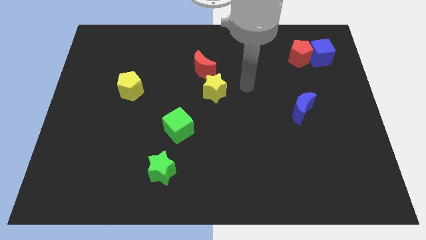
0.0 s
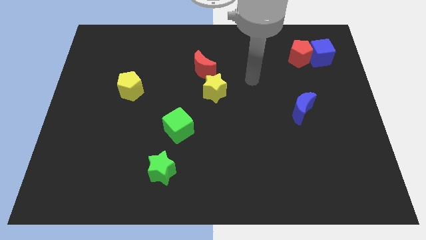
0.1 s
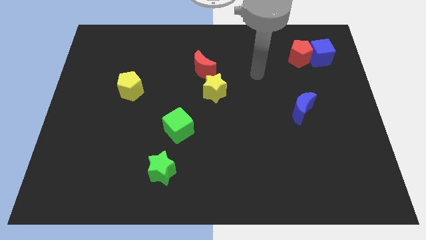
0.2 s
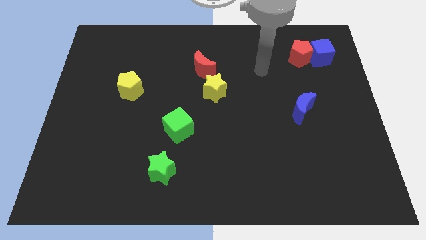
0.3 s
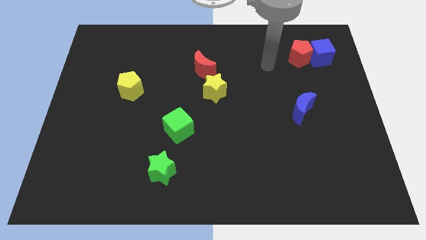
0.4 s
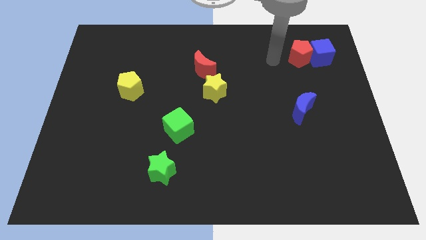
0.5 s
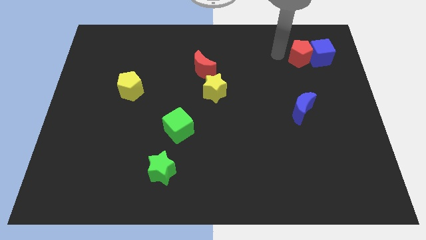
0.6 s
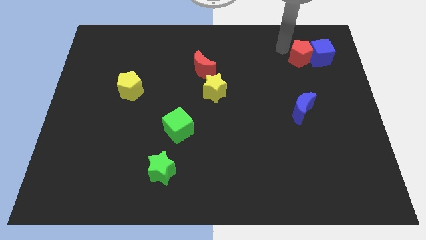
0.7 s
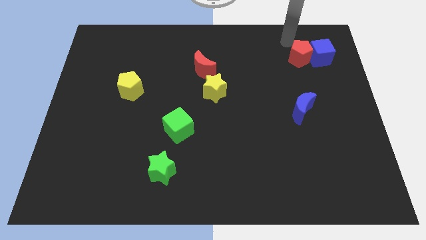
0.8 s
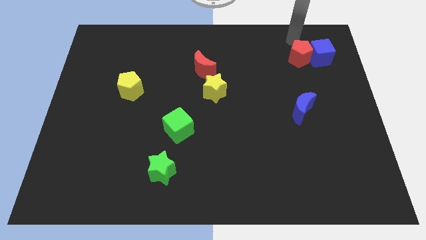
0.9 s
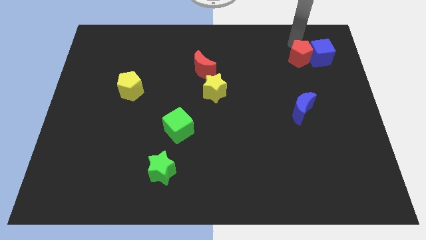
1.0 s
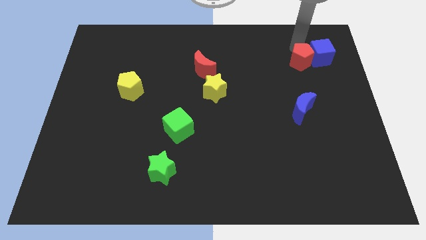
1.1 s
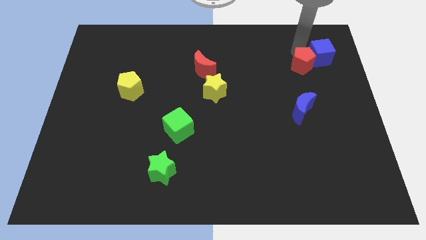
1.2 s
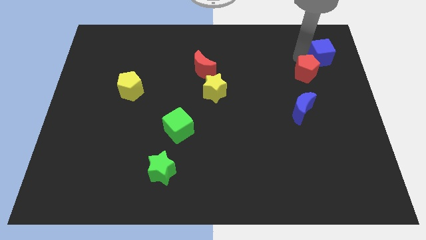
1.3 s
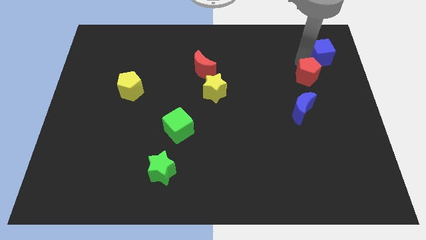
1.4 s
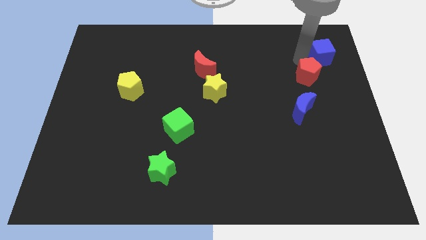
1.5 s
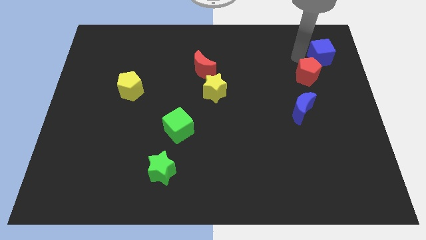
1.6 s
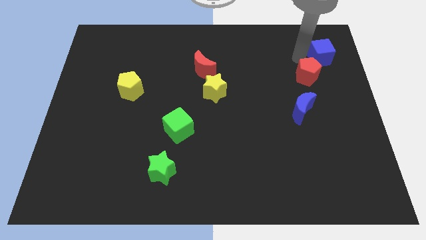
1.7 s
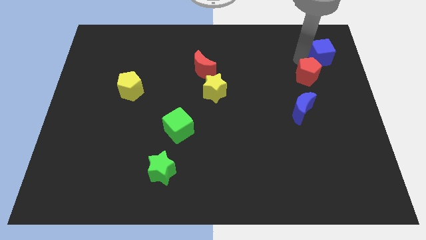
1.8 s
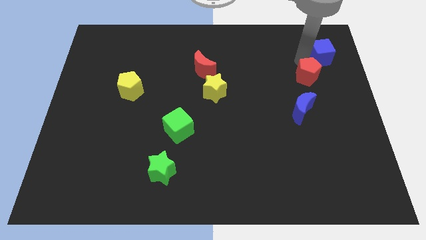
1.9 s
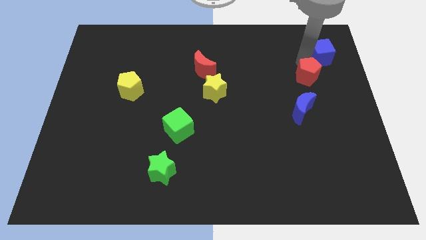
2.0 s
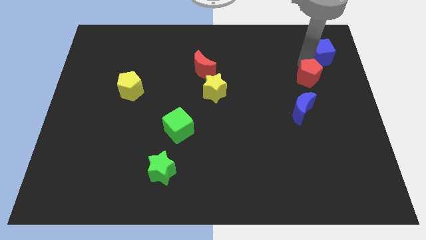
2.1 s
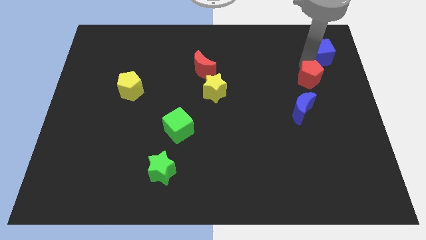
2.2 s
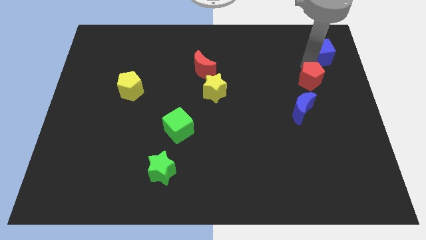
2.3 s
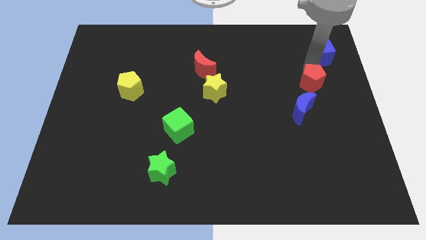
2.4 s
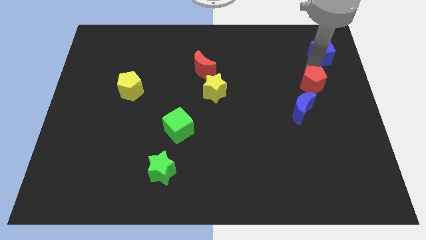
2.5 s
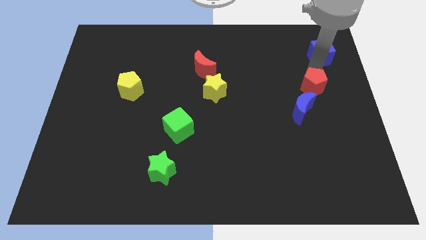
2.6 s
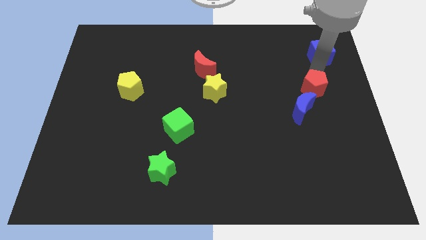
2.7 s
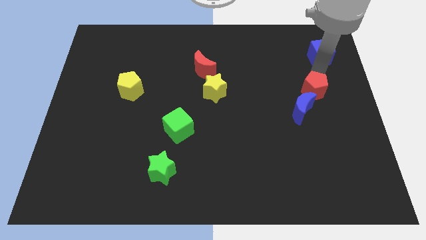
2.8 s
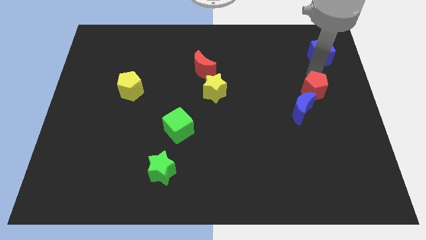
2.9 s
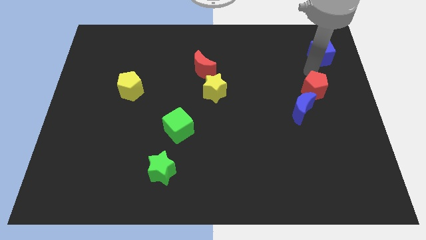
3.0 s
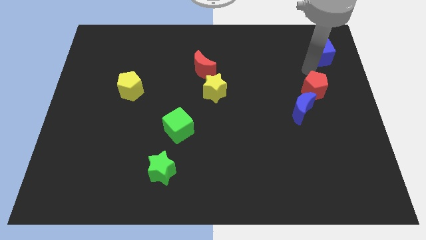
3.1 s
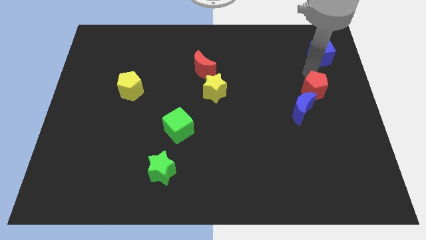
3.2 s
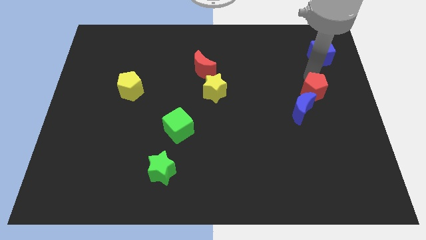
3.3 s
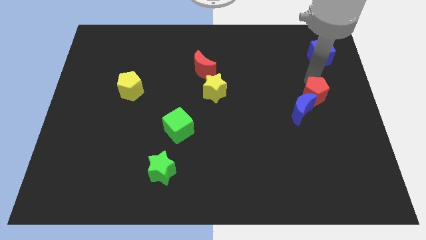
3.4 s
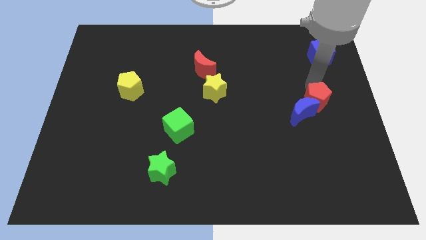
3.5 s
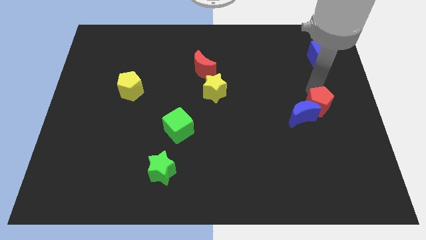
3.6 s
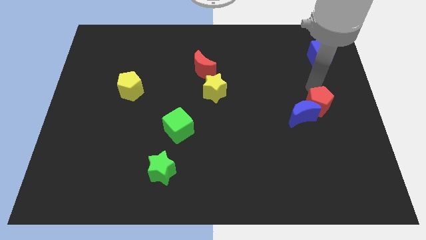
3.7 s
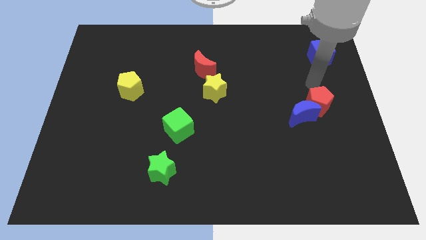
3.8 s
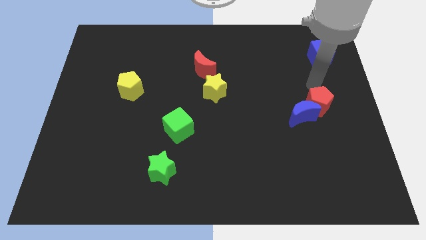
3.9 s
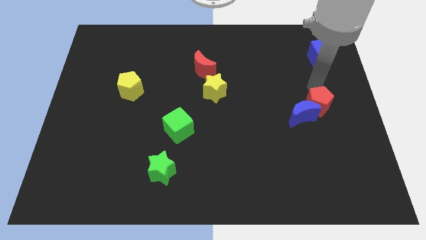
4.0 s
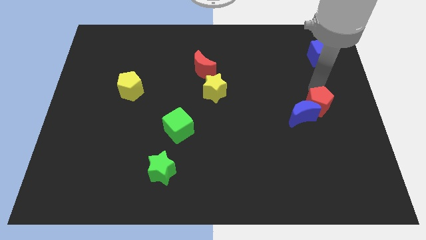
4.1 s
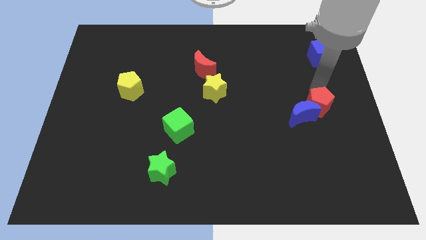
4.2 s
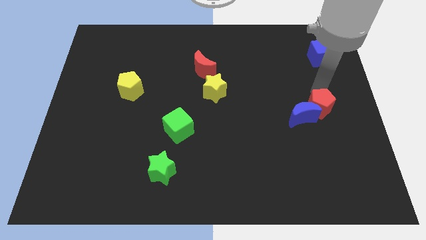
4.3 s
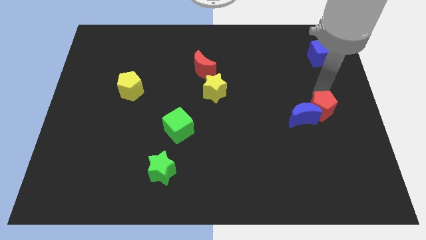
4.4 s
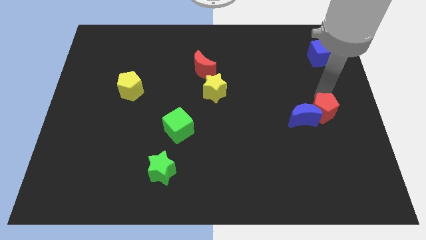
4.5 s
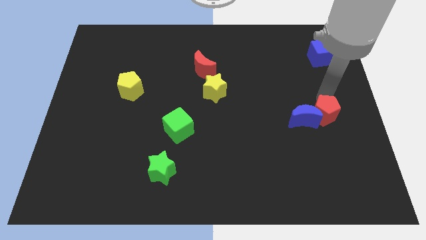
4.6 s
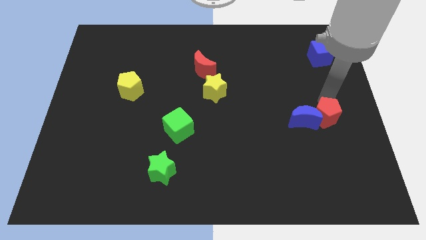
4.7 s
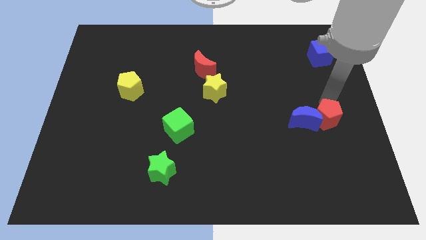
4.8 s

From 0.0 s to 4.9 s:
move the red pentagon down

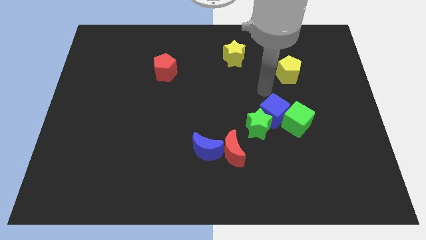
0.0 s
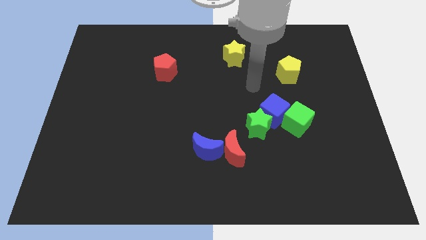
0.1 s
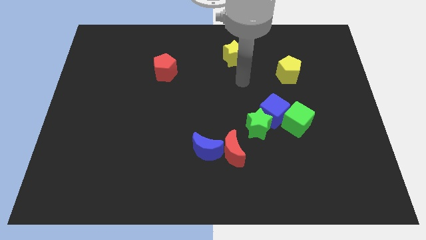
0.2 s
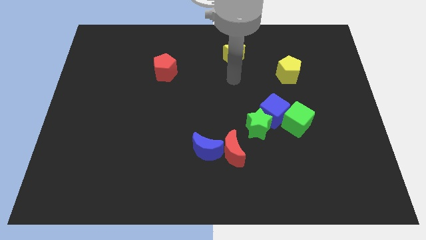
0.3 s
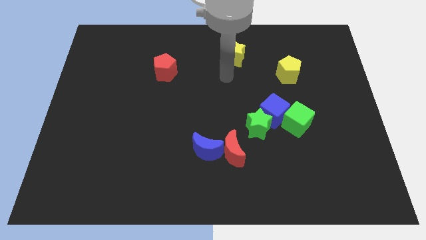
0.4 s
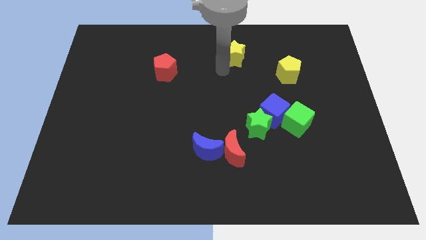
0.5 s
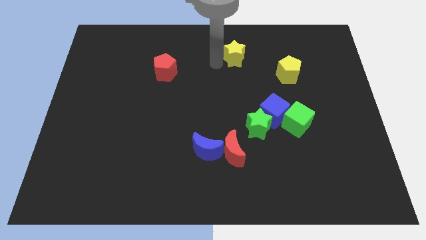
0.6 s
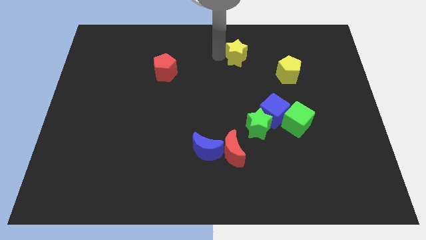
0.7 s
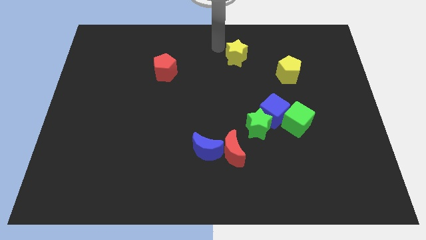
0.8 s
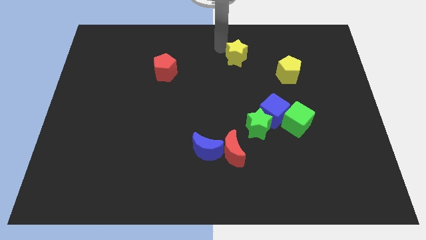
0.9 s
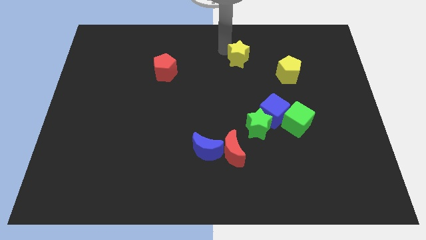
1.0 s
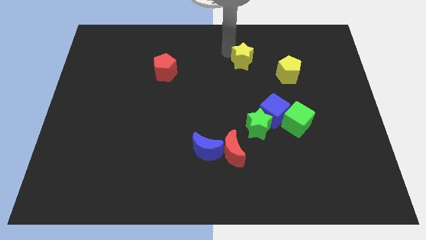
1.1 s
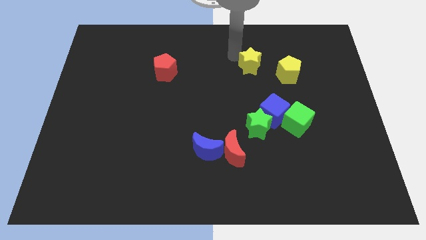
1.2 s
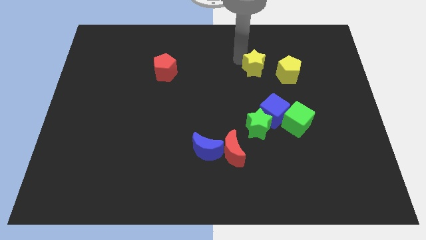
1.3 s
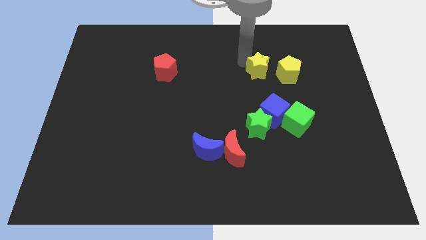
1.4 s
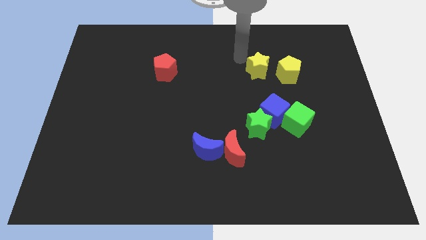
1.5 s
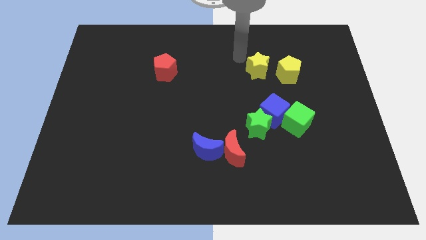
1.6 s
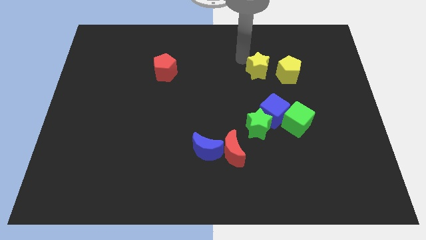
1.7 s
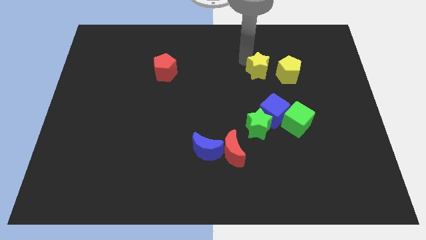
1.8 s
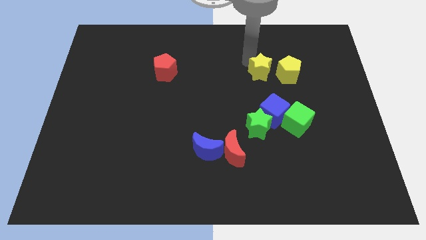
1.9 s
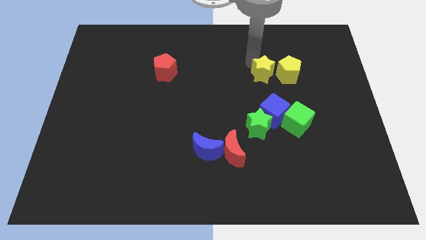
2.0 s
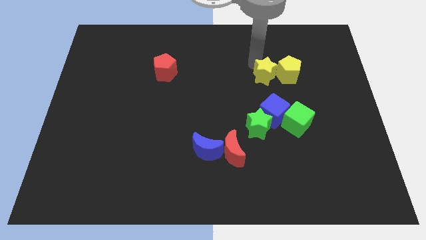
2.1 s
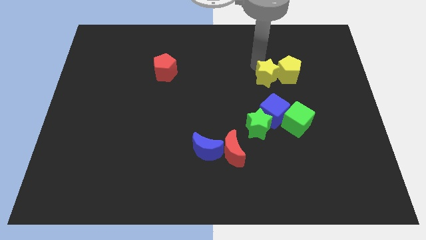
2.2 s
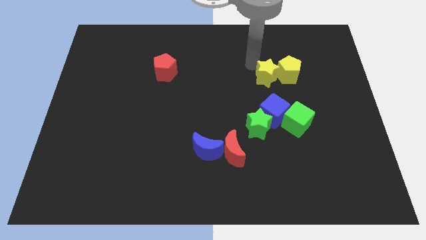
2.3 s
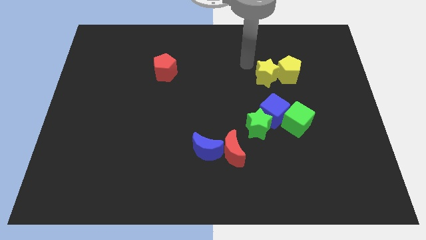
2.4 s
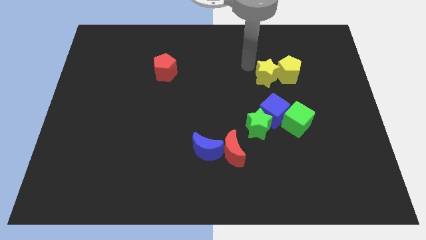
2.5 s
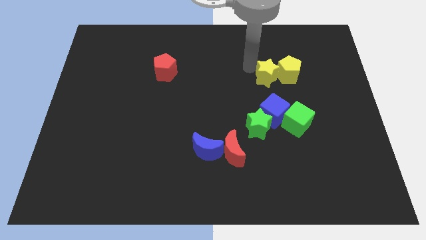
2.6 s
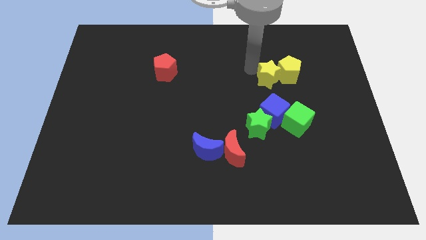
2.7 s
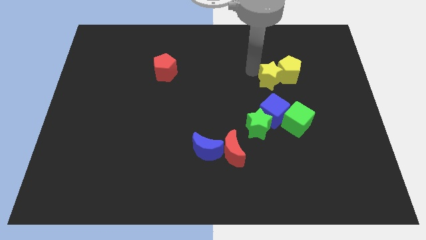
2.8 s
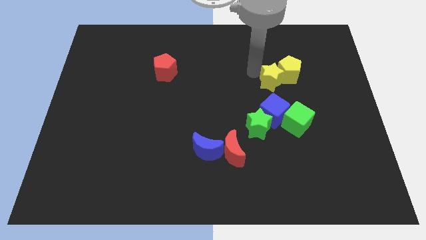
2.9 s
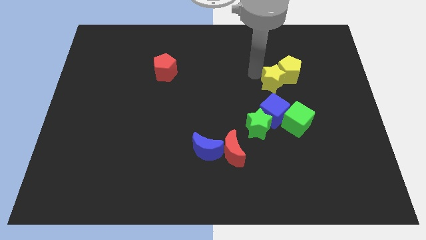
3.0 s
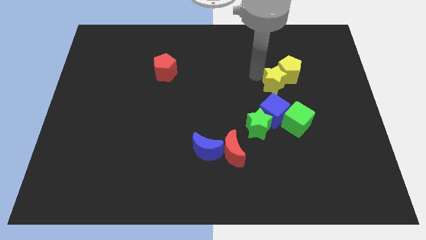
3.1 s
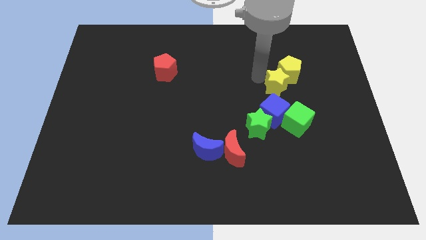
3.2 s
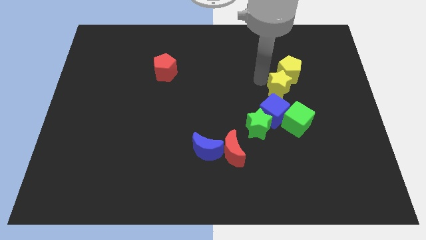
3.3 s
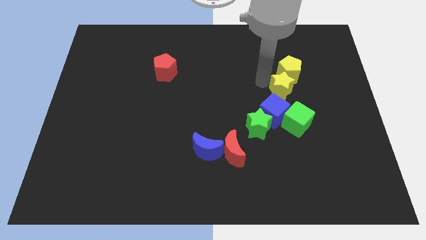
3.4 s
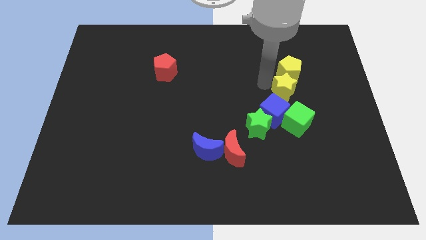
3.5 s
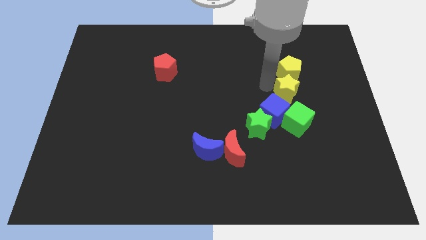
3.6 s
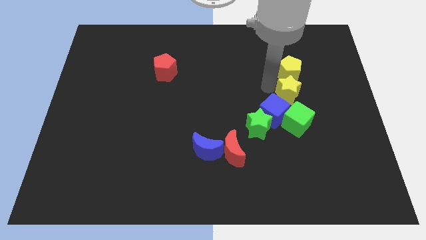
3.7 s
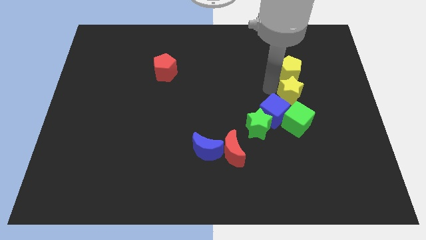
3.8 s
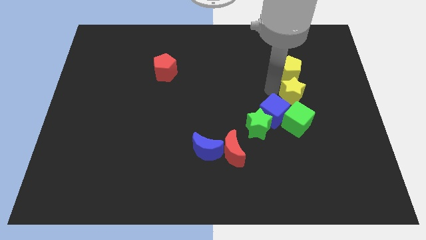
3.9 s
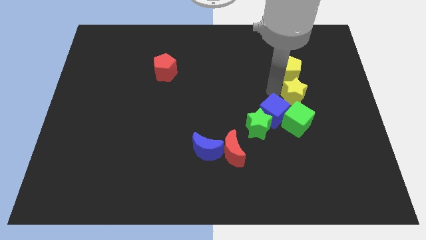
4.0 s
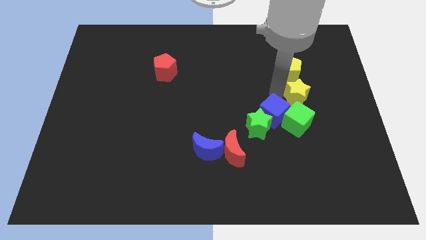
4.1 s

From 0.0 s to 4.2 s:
slide the yellow star diagonally down and to the right
